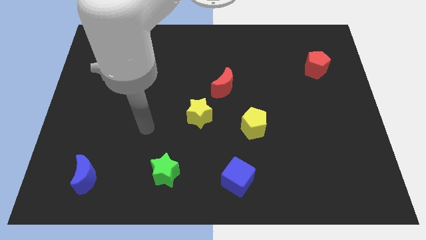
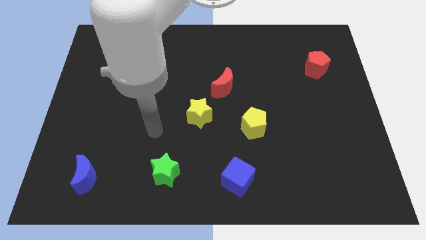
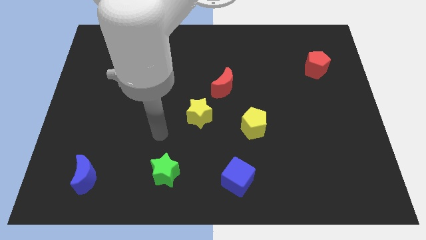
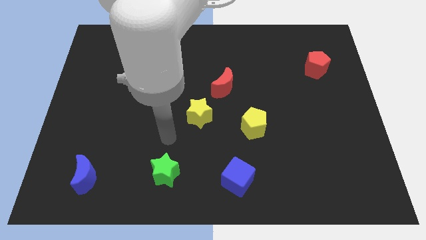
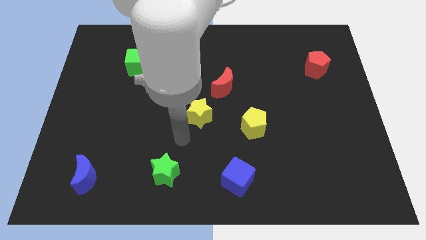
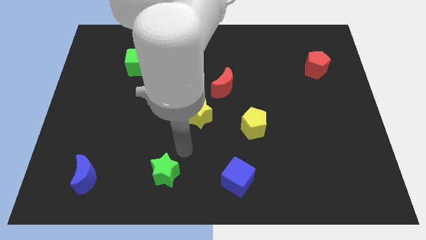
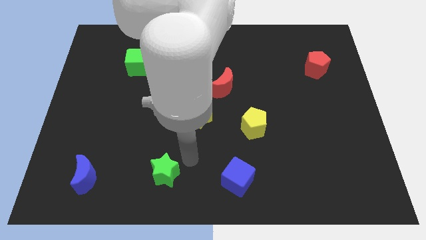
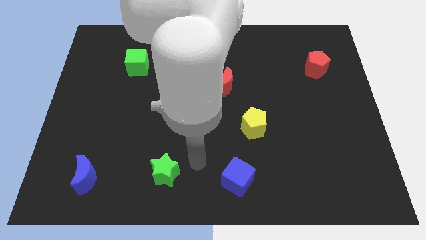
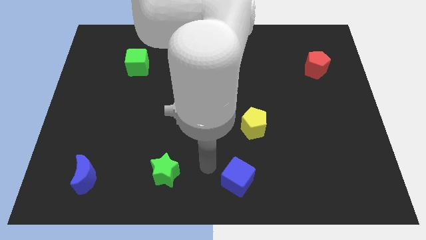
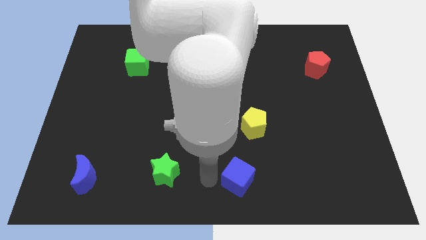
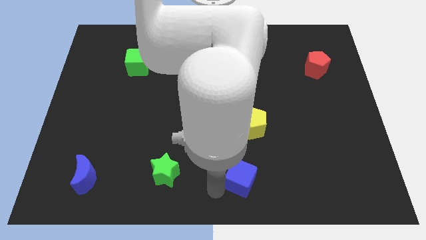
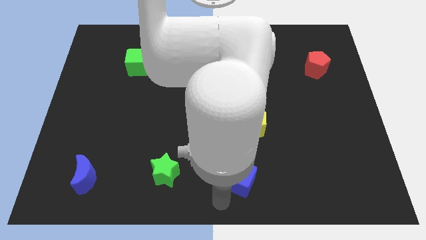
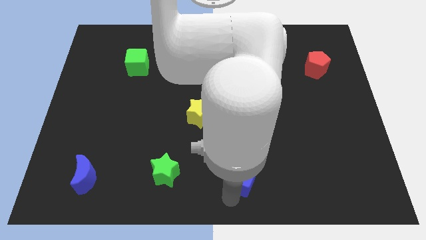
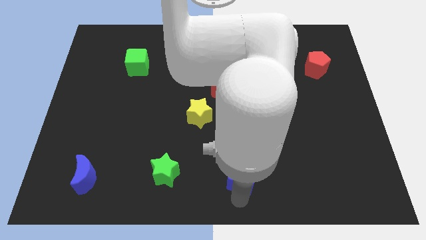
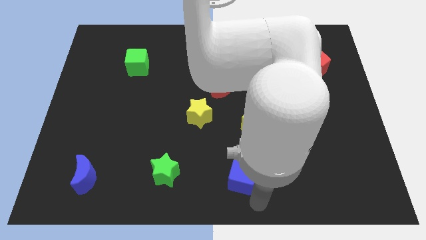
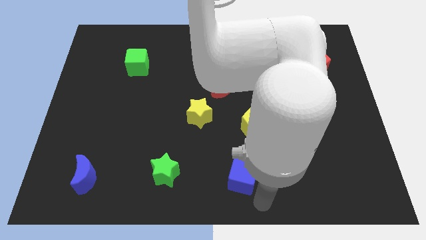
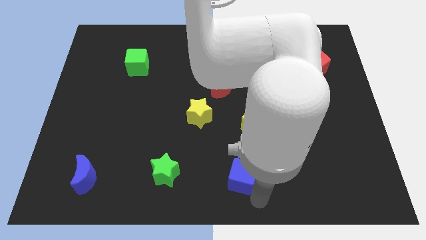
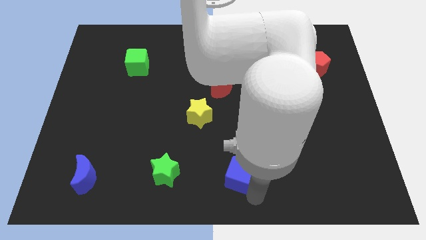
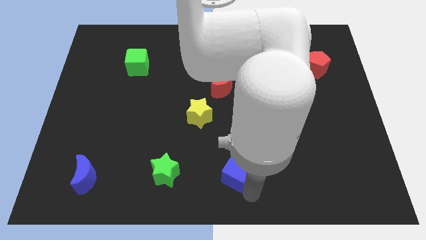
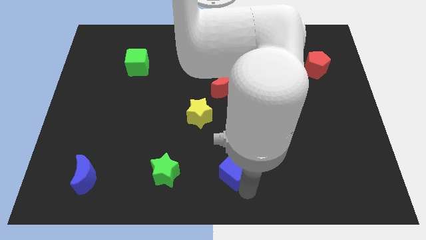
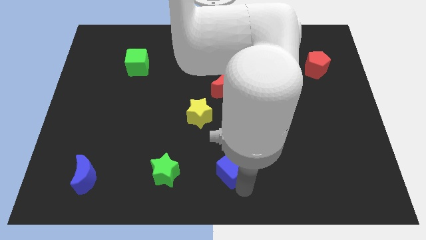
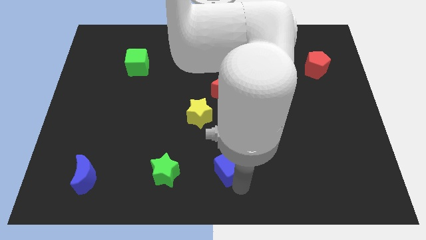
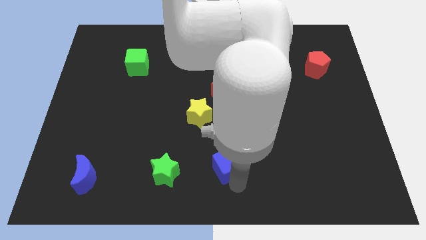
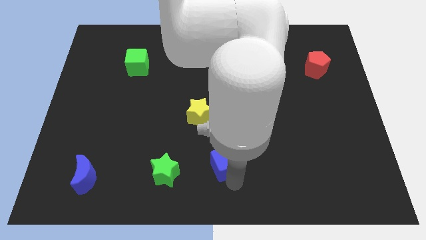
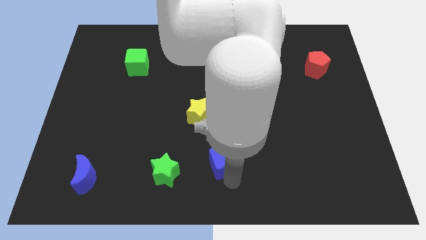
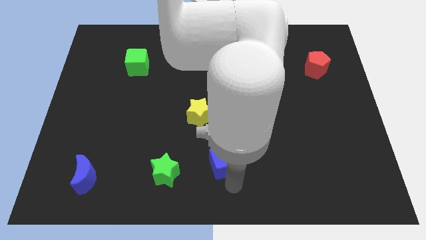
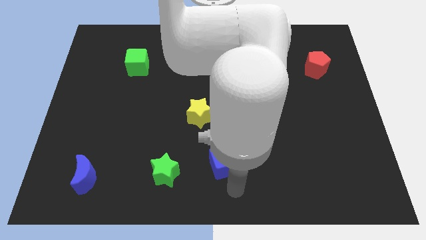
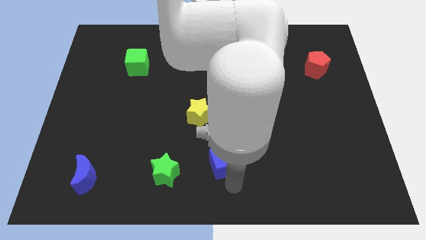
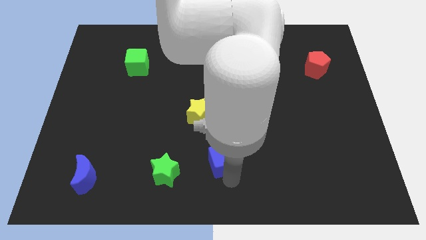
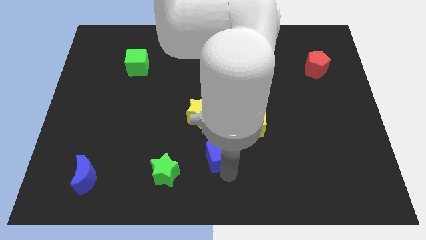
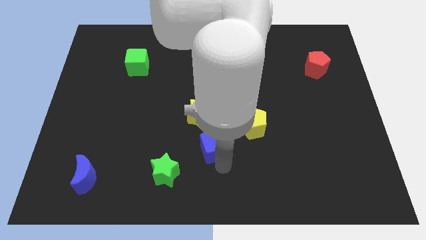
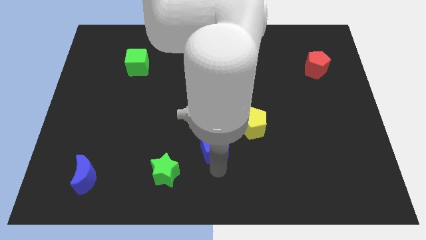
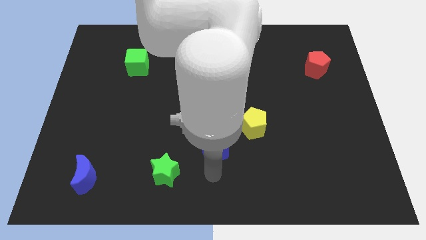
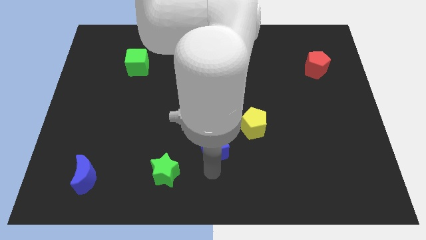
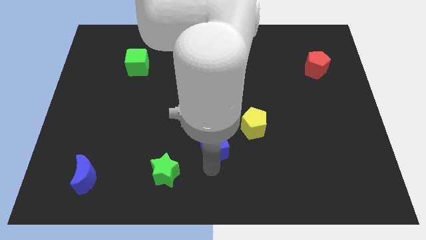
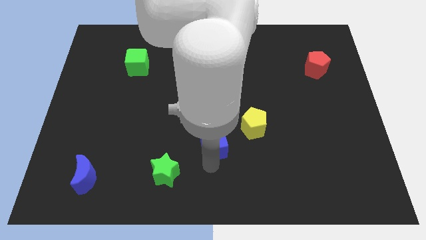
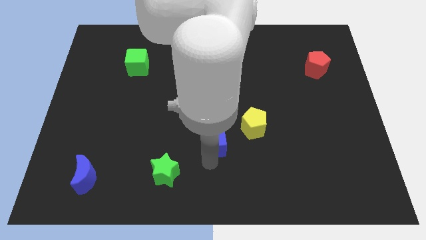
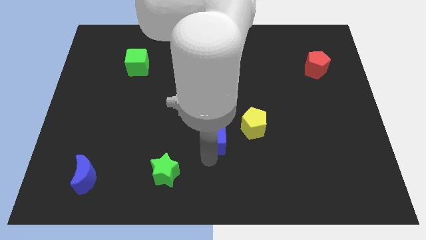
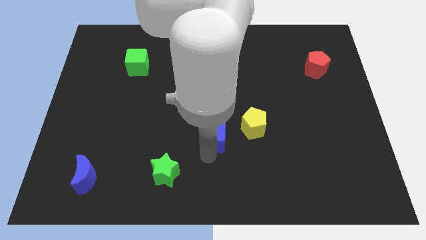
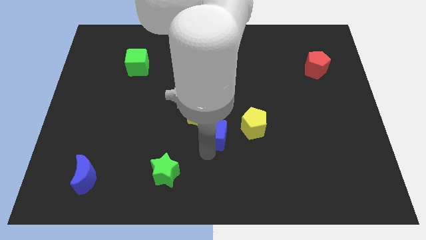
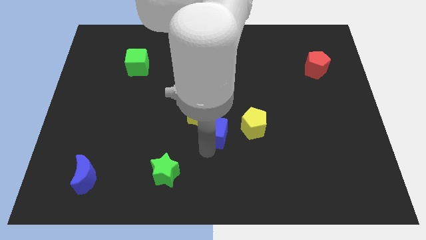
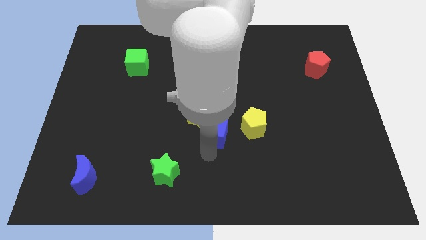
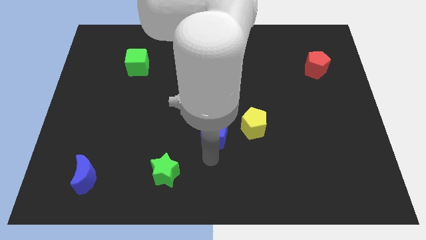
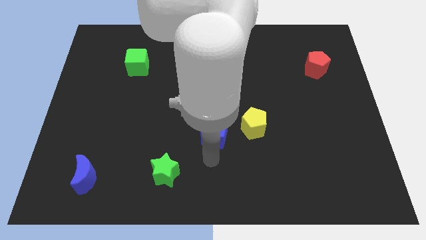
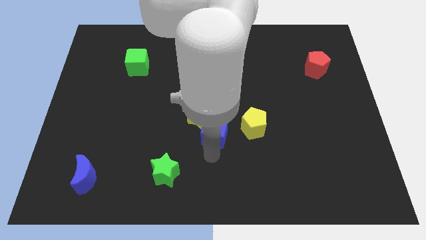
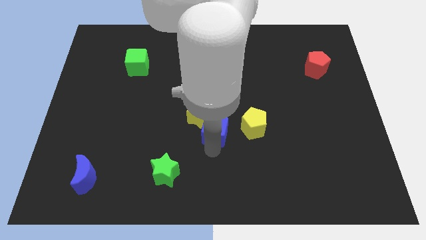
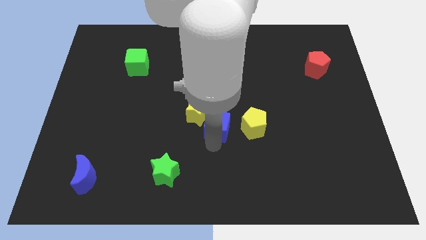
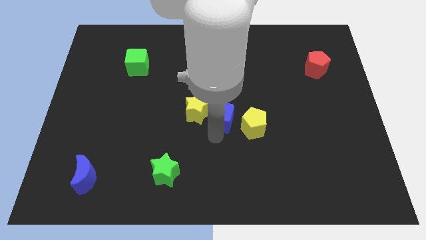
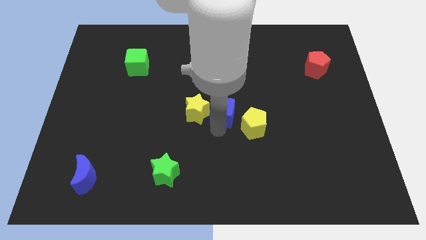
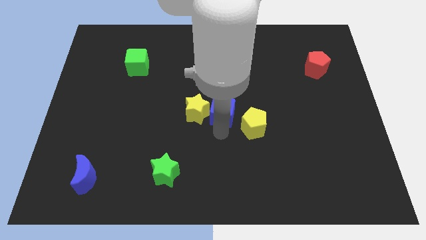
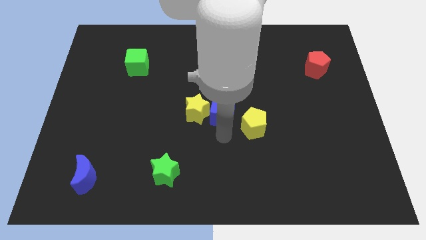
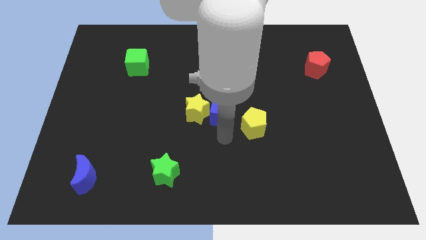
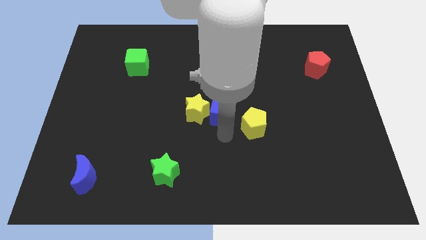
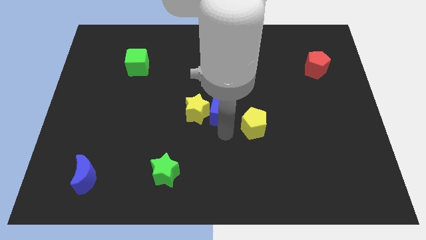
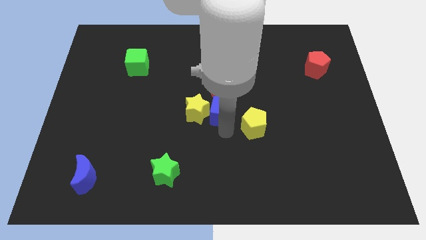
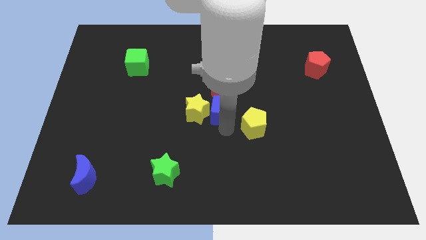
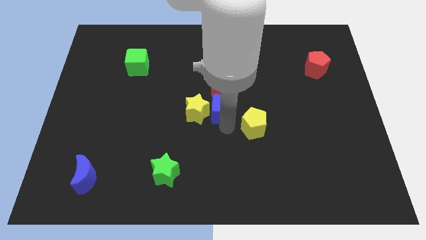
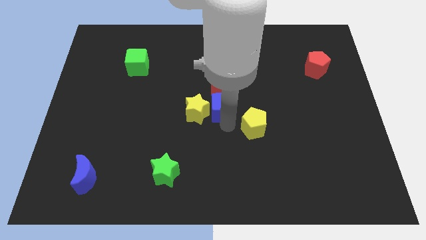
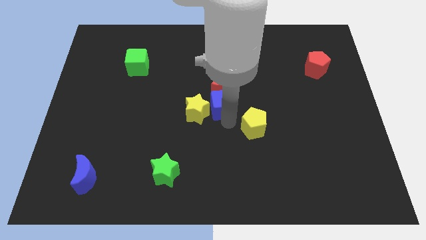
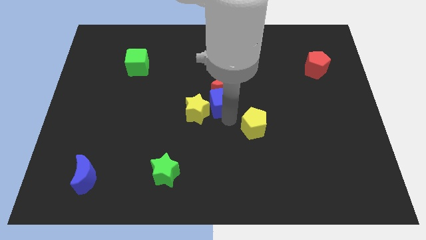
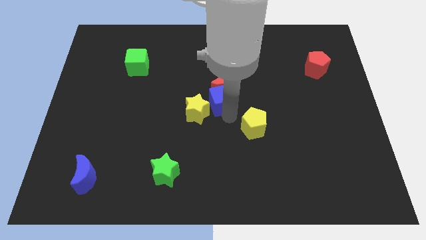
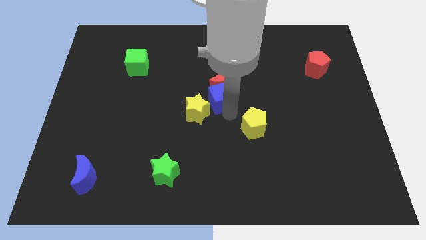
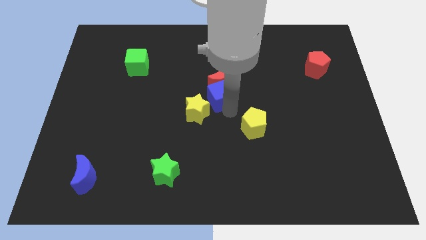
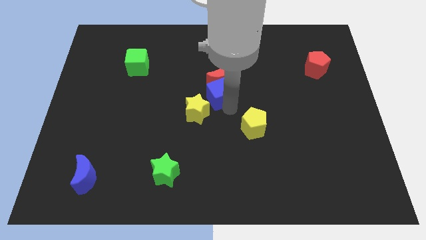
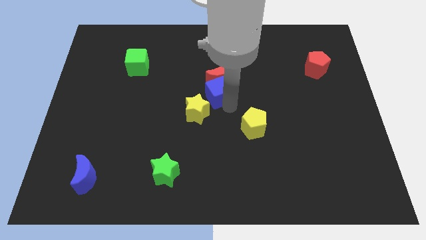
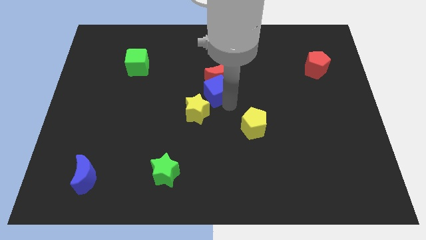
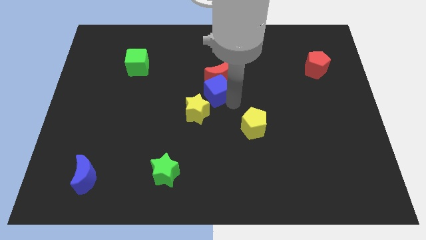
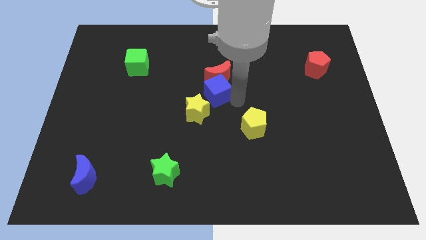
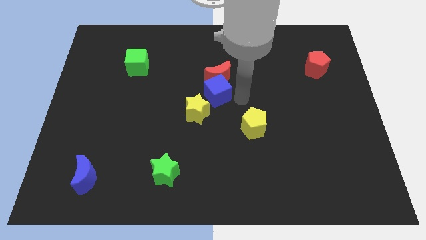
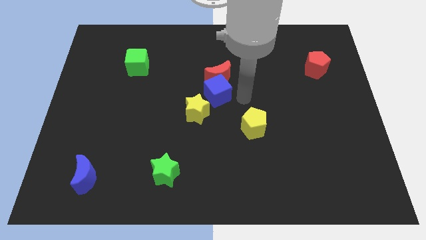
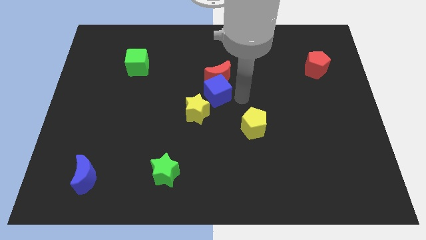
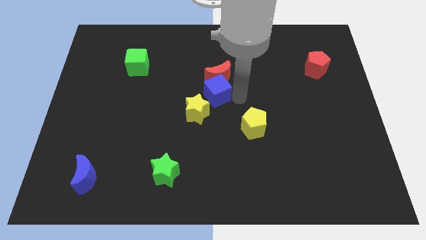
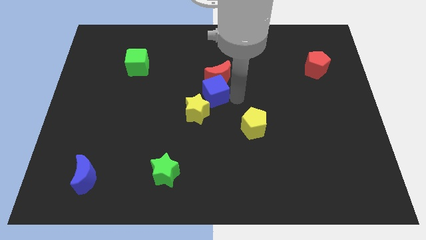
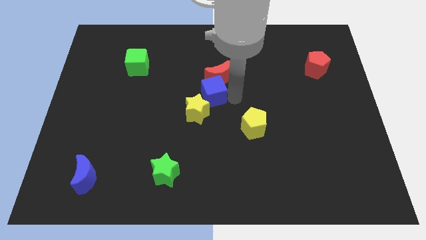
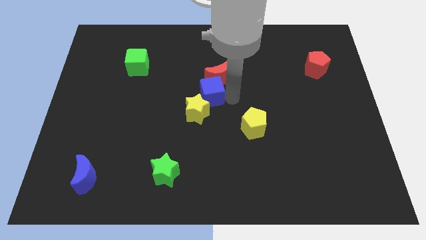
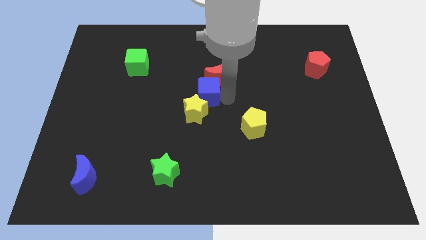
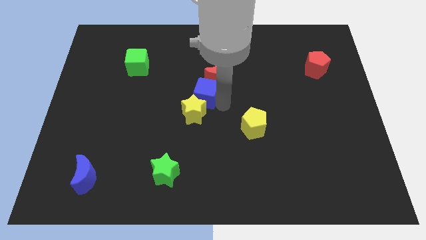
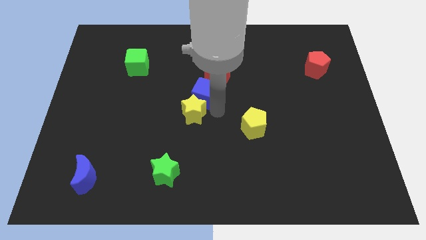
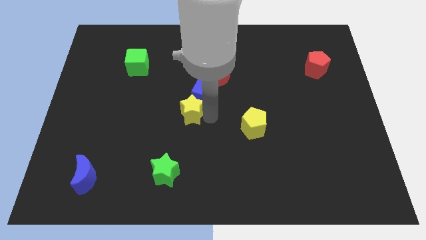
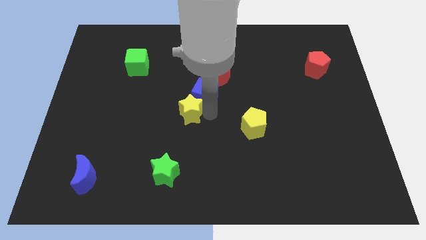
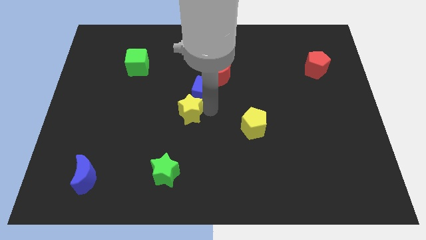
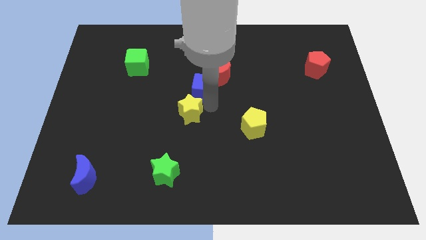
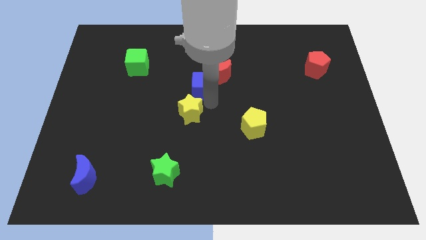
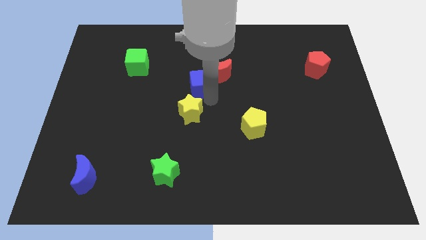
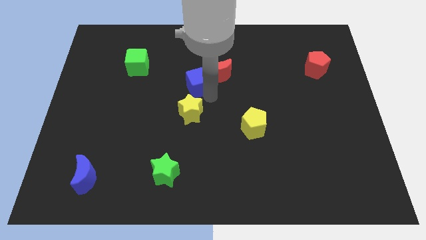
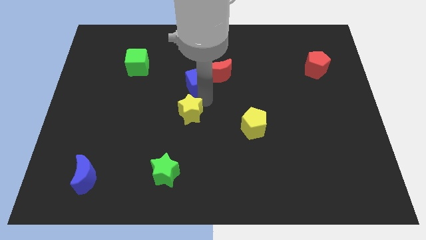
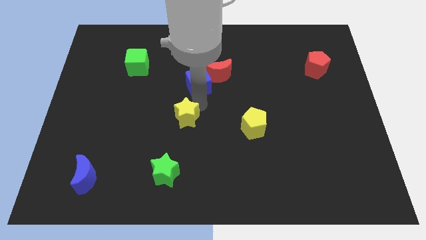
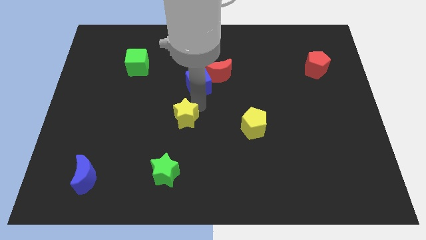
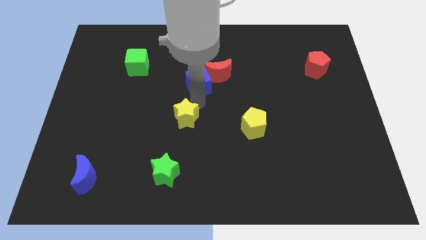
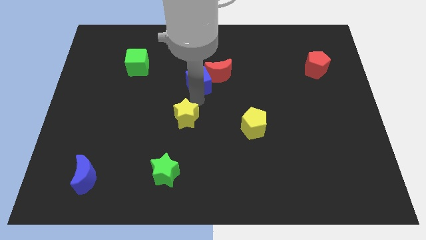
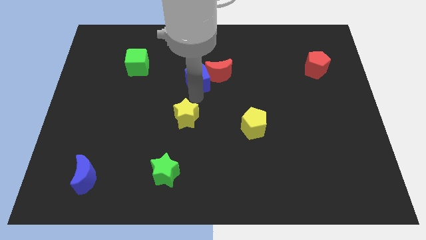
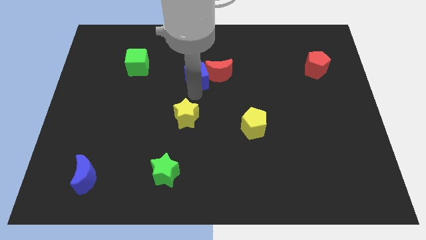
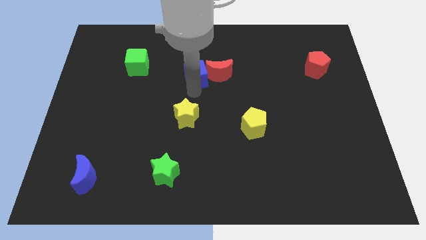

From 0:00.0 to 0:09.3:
slide the blue cube to the top left side of the red moon
